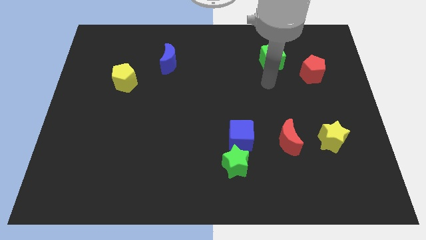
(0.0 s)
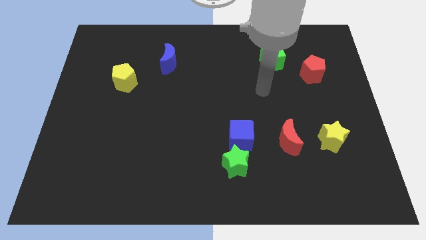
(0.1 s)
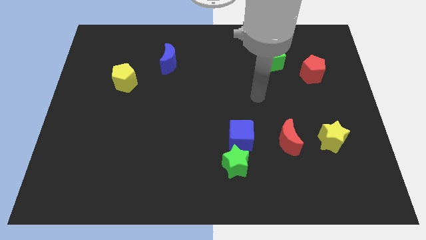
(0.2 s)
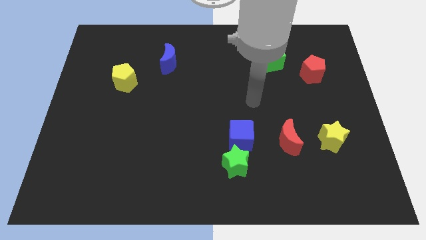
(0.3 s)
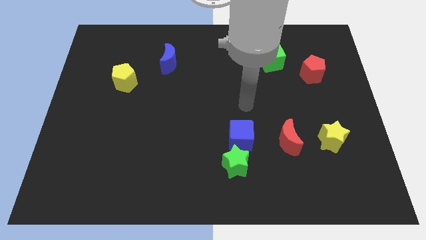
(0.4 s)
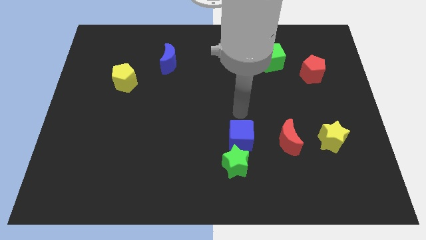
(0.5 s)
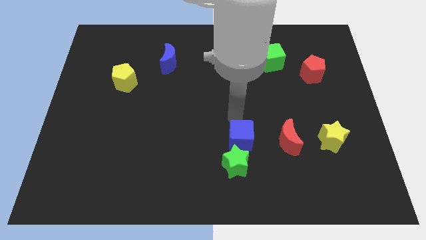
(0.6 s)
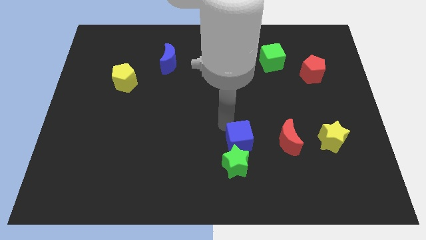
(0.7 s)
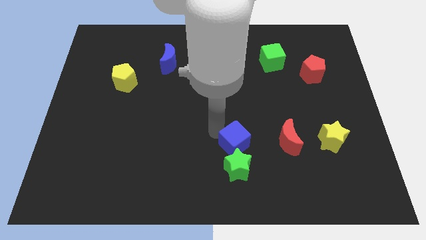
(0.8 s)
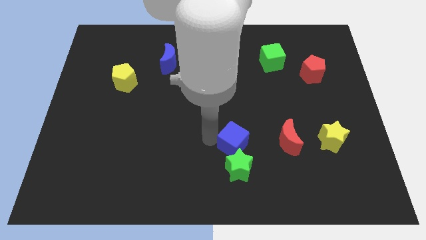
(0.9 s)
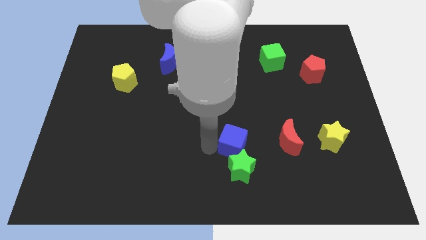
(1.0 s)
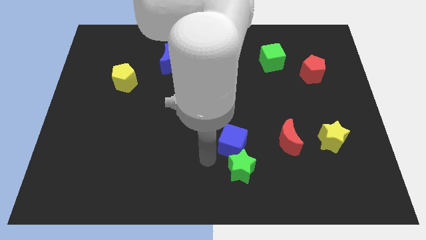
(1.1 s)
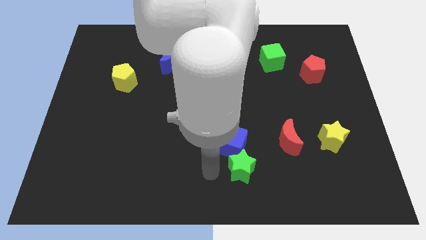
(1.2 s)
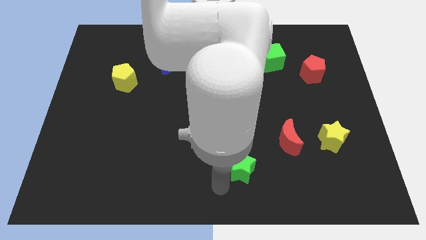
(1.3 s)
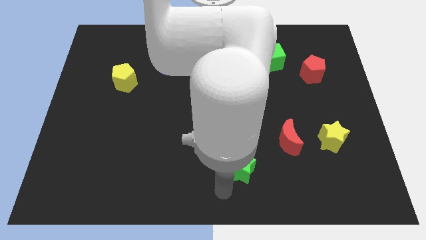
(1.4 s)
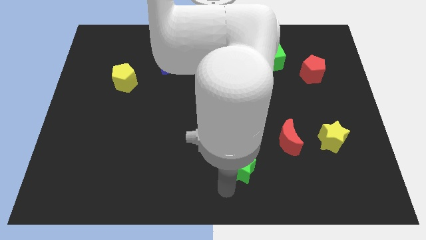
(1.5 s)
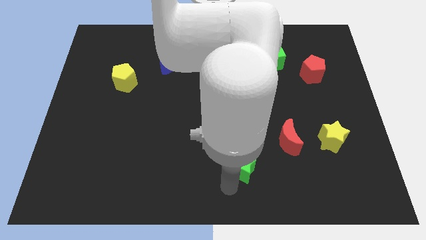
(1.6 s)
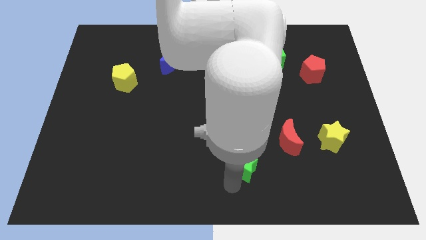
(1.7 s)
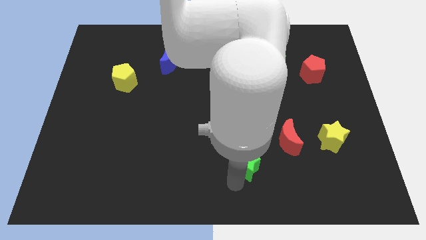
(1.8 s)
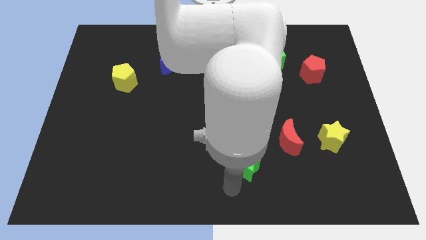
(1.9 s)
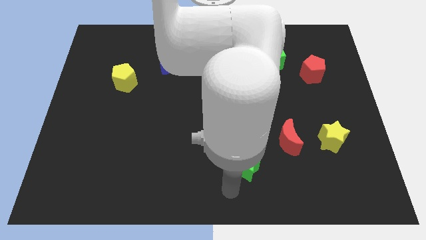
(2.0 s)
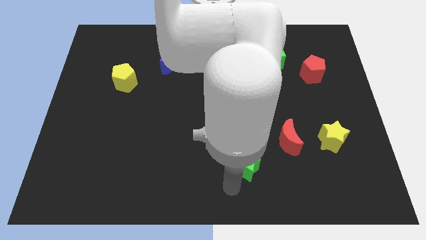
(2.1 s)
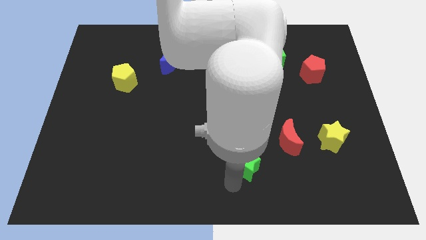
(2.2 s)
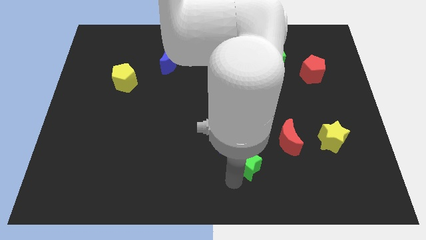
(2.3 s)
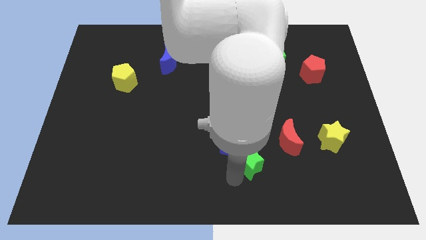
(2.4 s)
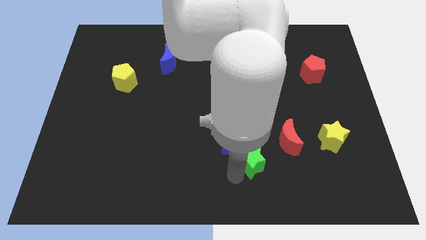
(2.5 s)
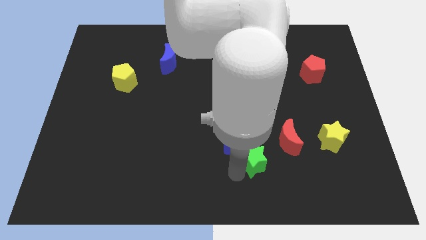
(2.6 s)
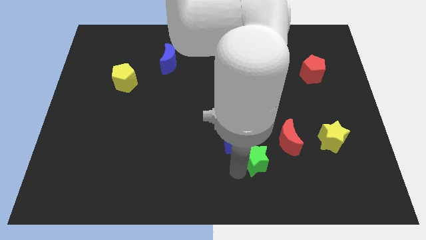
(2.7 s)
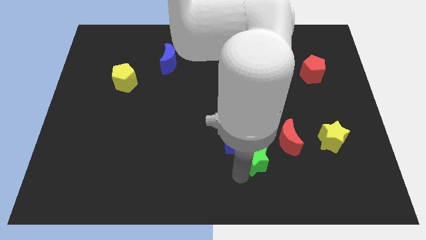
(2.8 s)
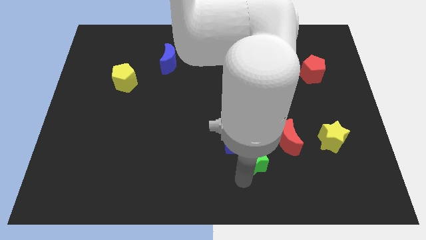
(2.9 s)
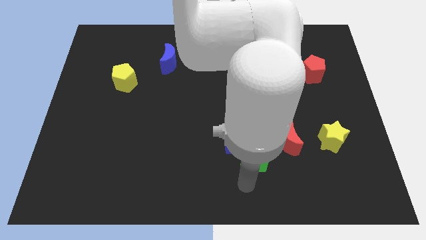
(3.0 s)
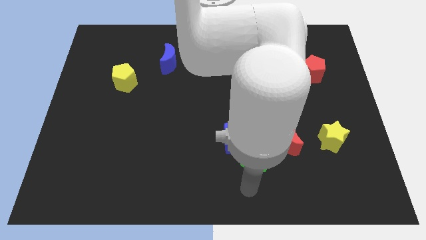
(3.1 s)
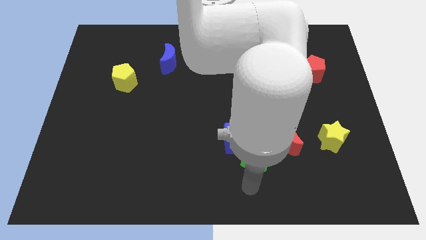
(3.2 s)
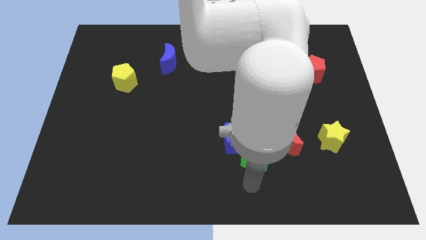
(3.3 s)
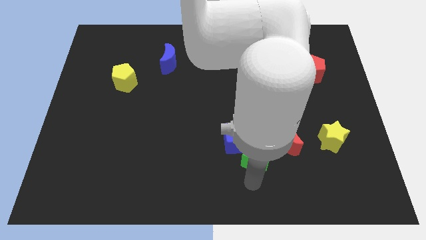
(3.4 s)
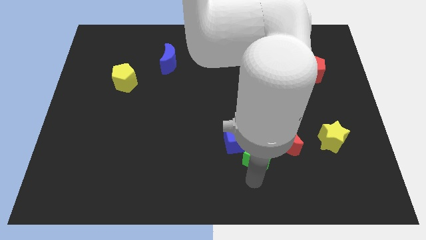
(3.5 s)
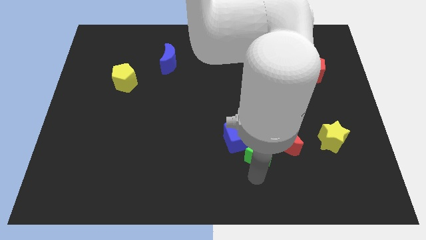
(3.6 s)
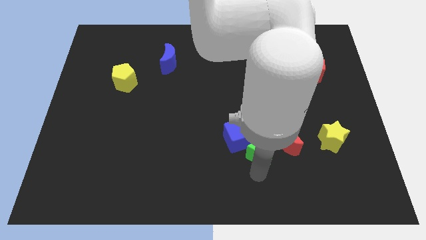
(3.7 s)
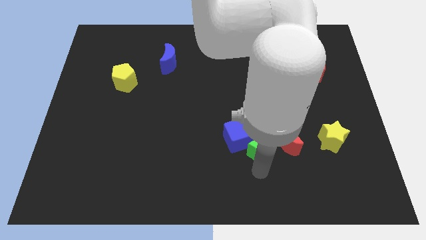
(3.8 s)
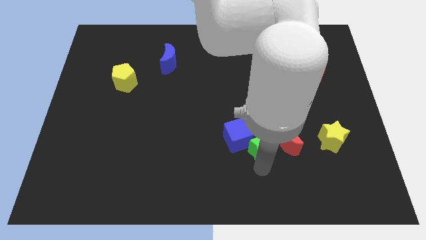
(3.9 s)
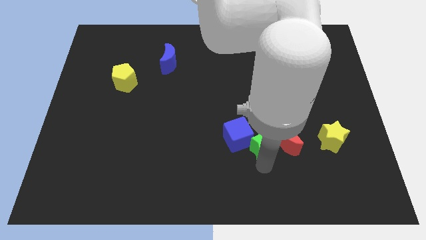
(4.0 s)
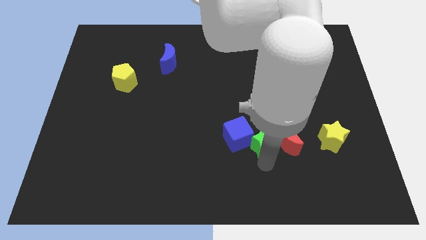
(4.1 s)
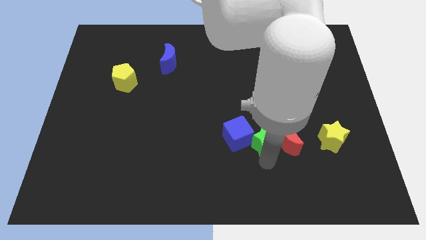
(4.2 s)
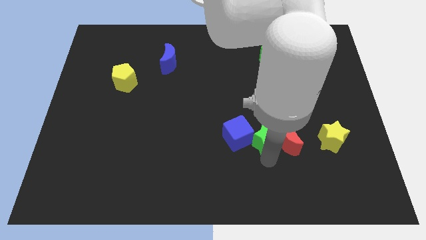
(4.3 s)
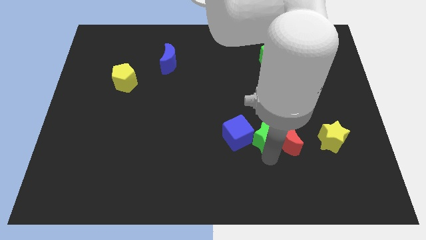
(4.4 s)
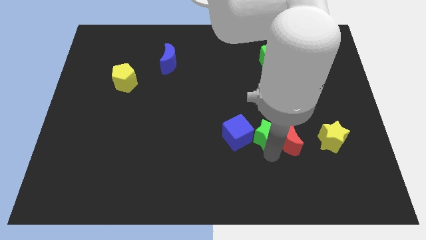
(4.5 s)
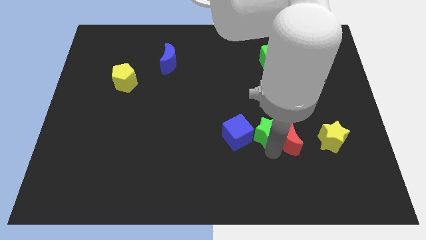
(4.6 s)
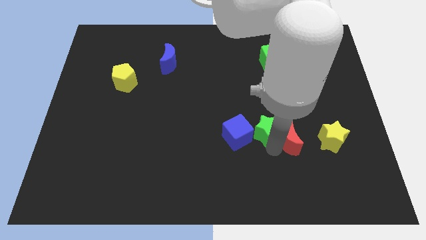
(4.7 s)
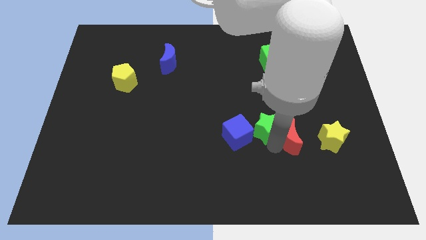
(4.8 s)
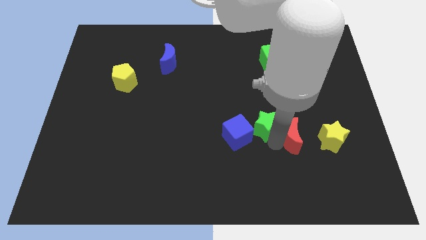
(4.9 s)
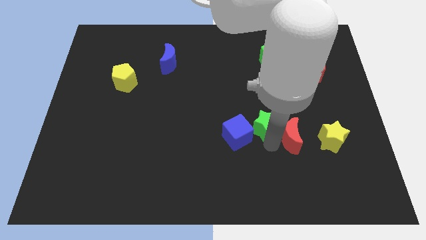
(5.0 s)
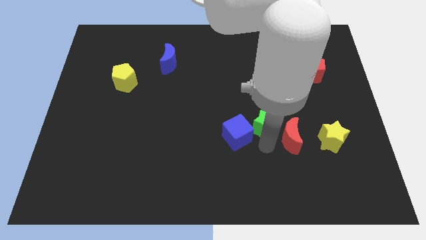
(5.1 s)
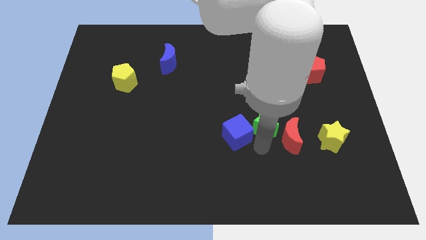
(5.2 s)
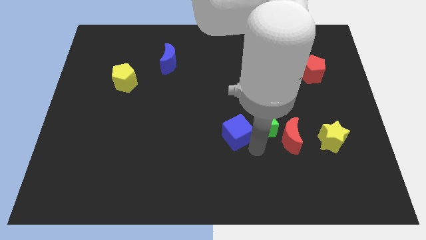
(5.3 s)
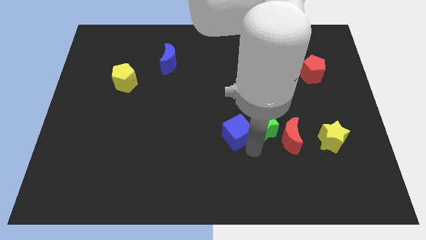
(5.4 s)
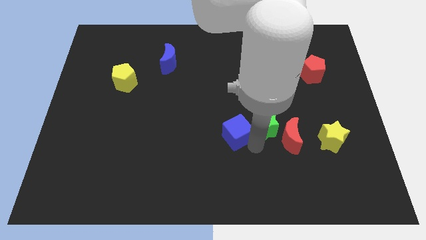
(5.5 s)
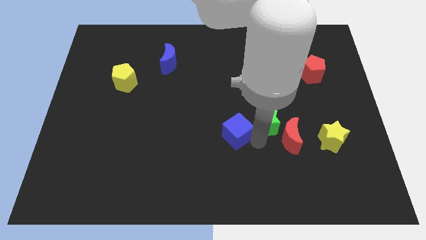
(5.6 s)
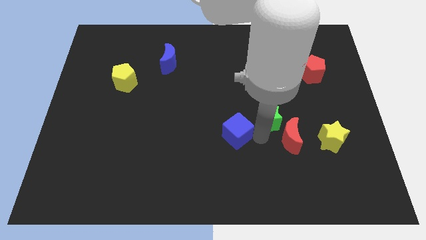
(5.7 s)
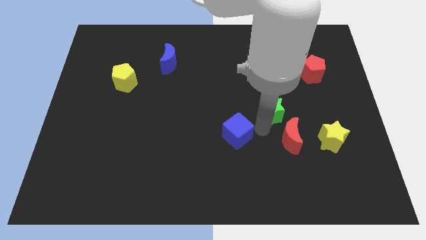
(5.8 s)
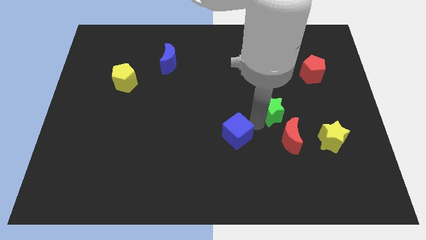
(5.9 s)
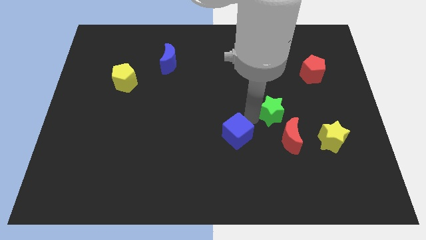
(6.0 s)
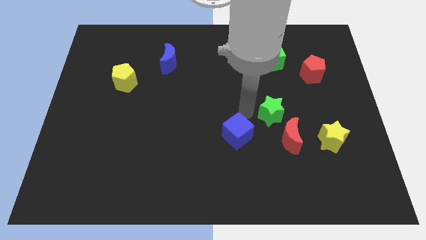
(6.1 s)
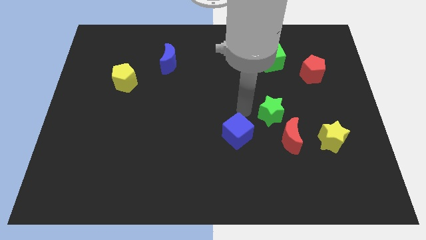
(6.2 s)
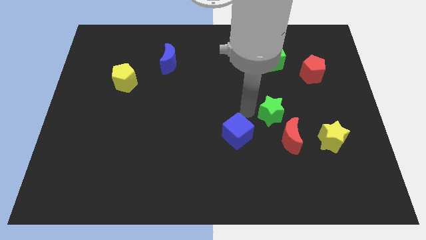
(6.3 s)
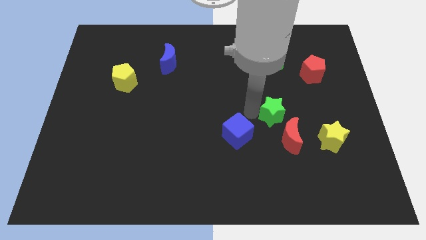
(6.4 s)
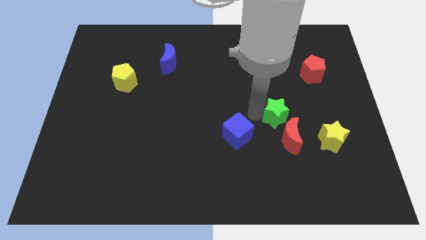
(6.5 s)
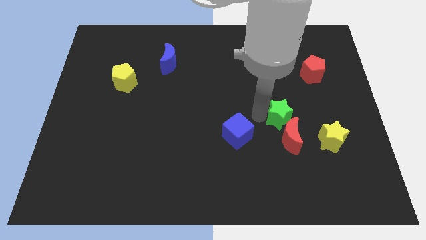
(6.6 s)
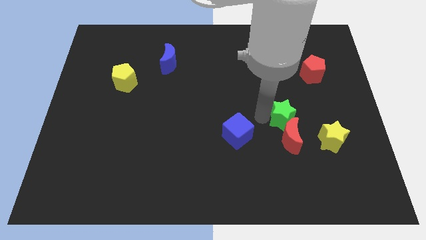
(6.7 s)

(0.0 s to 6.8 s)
slide the green star diagonally up and to the right of the red moon
